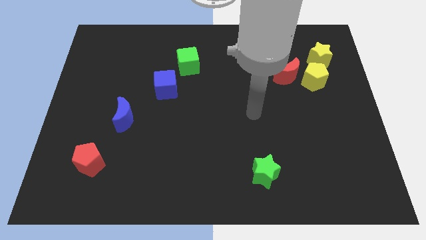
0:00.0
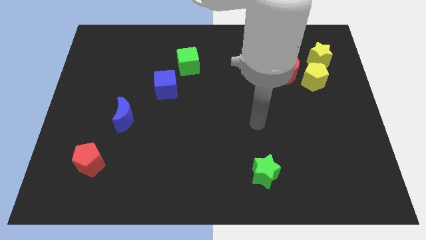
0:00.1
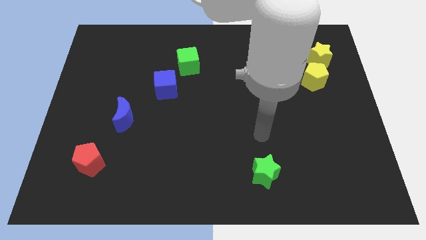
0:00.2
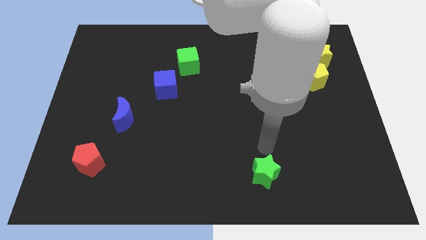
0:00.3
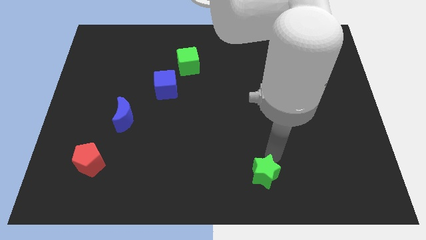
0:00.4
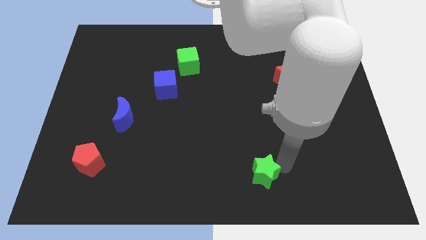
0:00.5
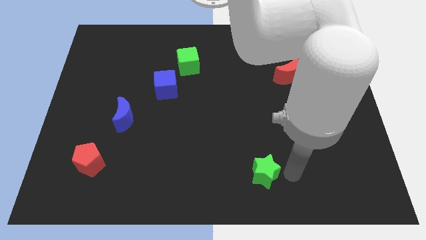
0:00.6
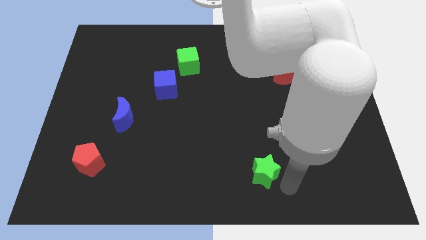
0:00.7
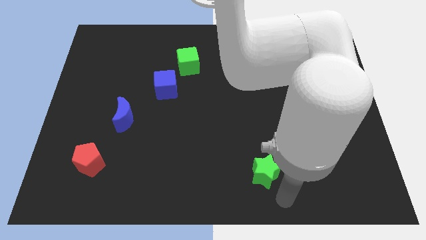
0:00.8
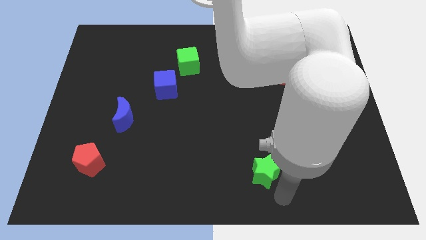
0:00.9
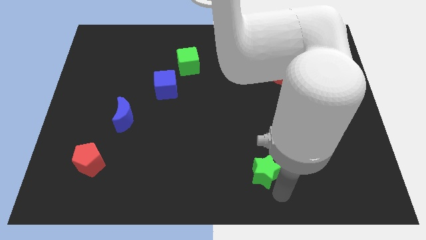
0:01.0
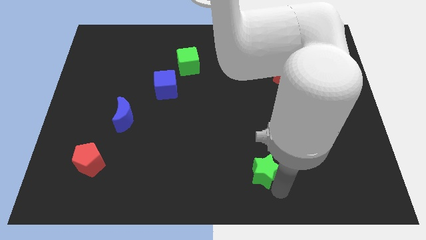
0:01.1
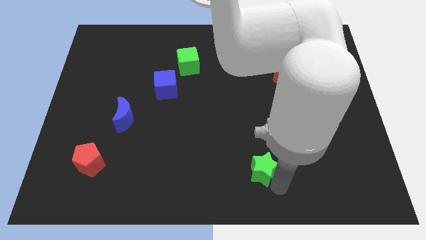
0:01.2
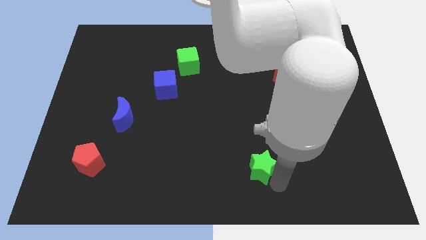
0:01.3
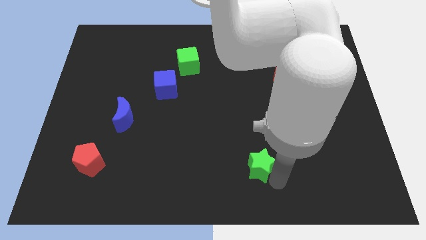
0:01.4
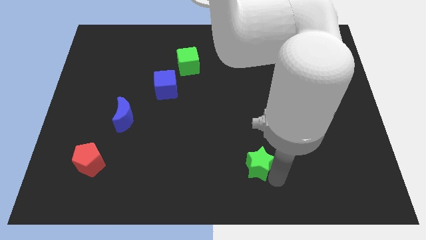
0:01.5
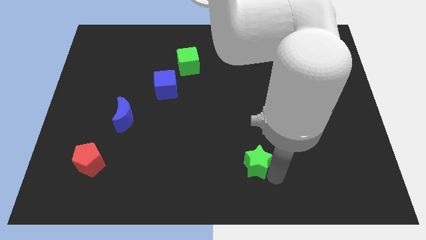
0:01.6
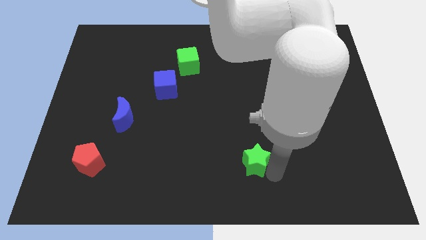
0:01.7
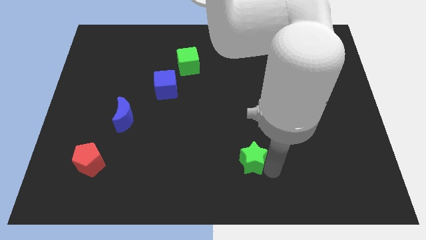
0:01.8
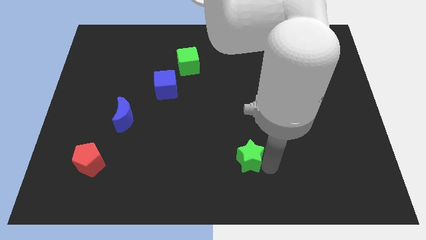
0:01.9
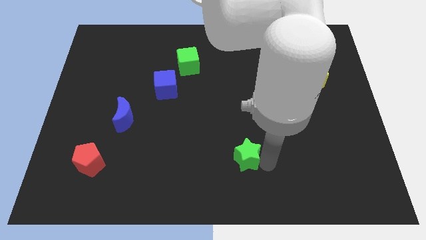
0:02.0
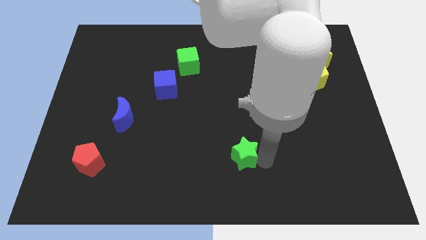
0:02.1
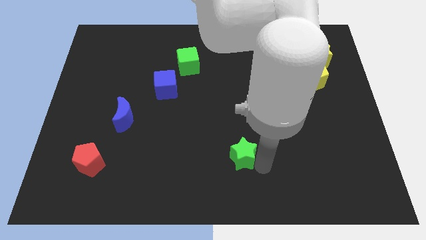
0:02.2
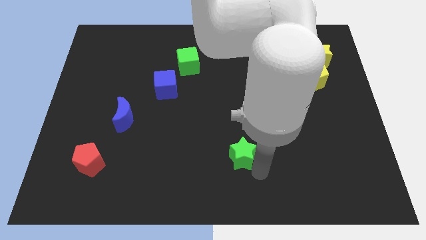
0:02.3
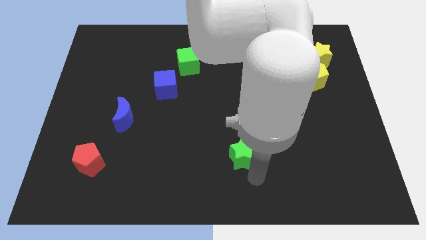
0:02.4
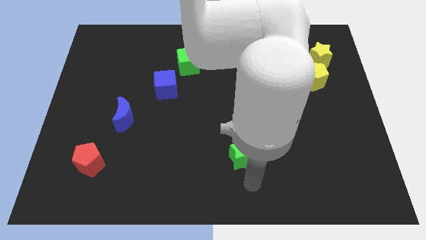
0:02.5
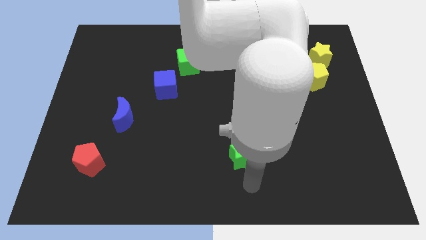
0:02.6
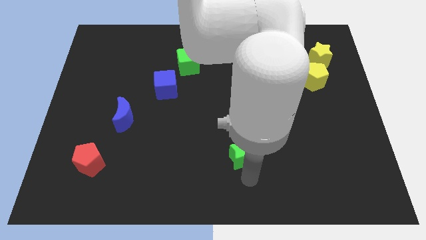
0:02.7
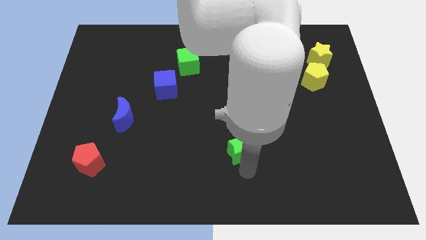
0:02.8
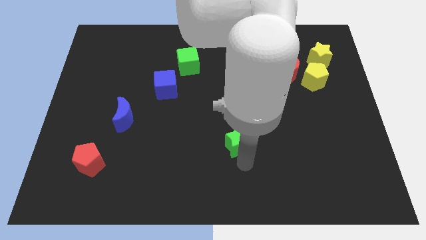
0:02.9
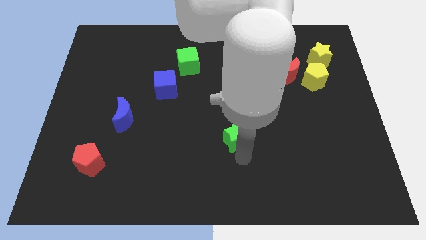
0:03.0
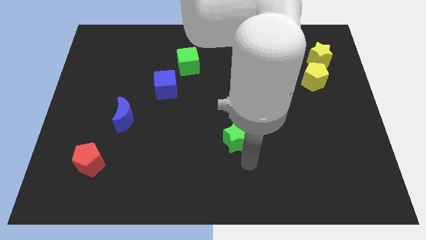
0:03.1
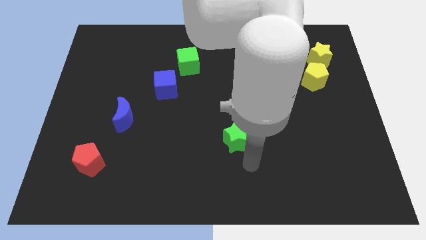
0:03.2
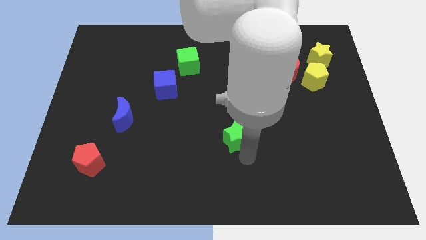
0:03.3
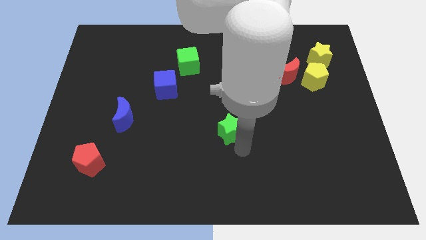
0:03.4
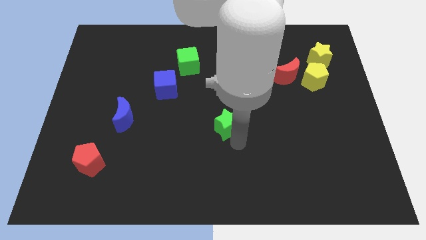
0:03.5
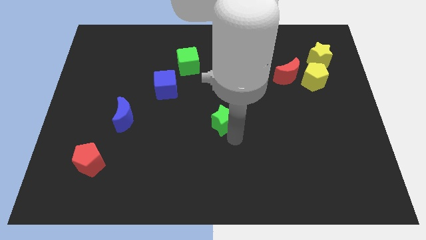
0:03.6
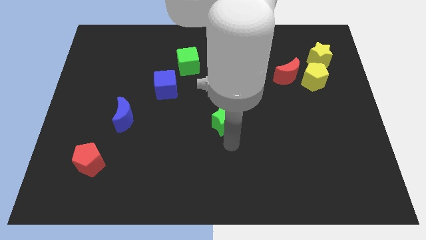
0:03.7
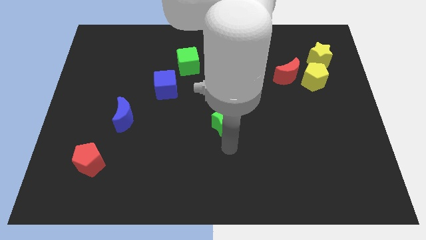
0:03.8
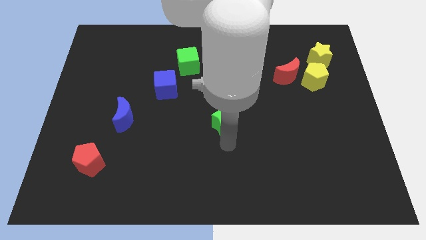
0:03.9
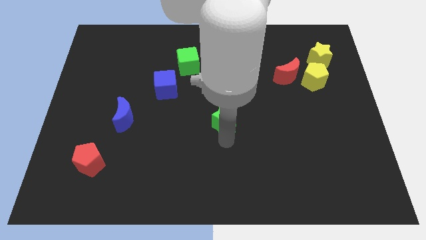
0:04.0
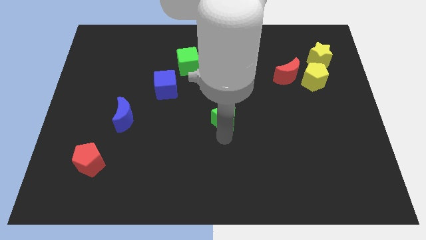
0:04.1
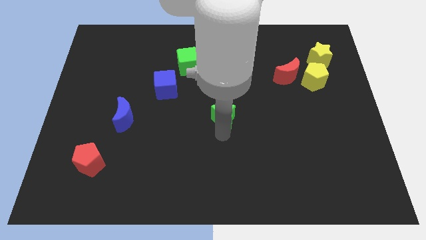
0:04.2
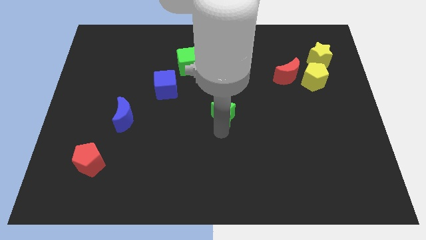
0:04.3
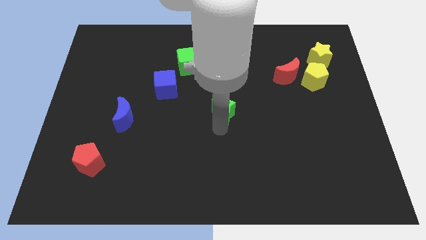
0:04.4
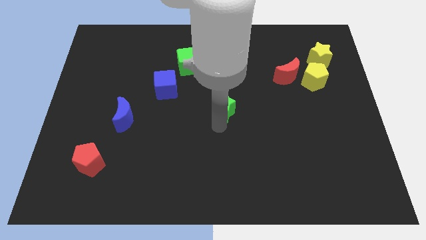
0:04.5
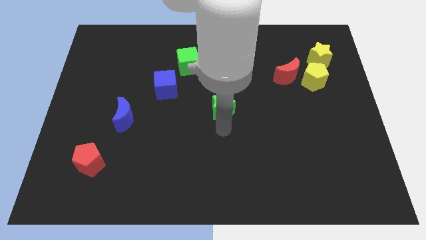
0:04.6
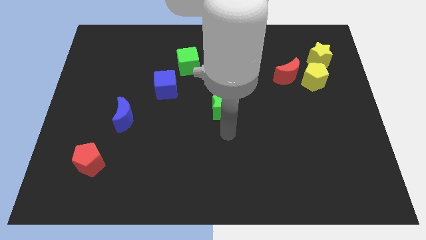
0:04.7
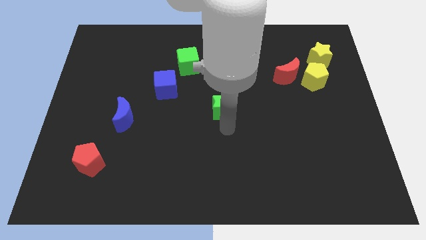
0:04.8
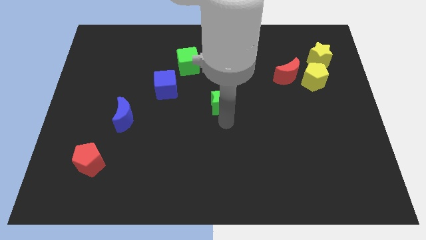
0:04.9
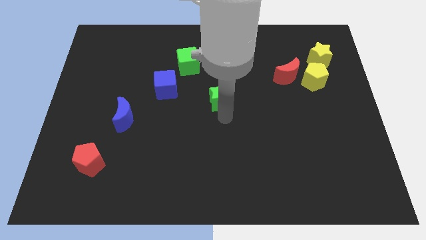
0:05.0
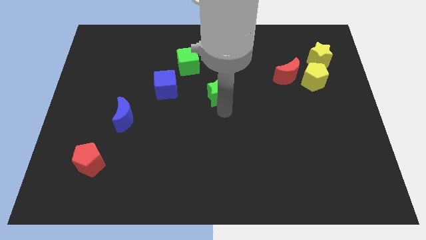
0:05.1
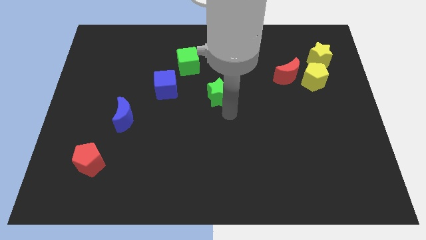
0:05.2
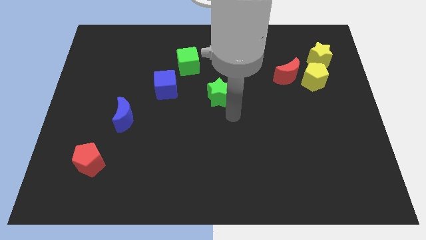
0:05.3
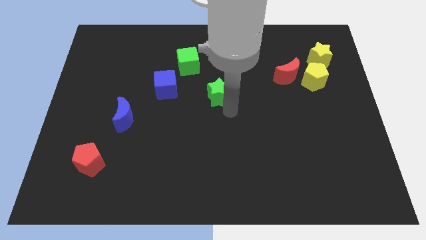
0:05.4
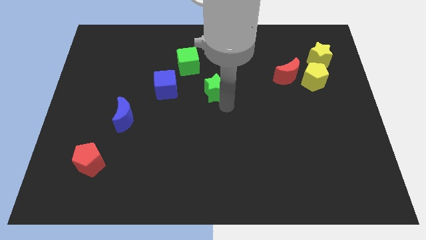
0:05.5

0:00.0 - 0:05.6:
put the green star diagonally down and to the right of the green cube

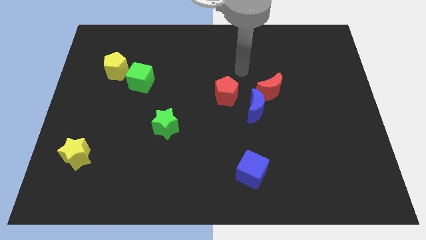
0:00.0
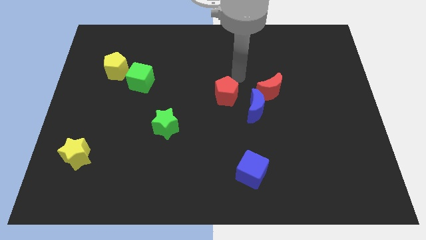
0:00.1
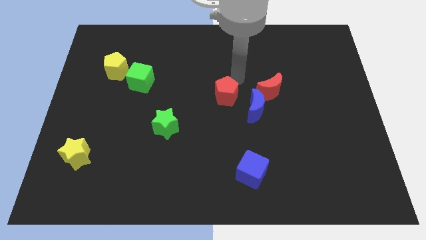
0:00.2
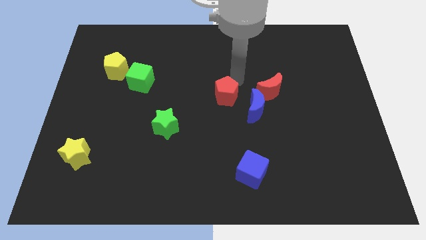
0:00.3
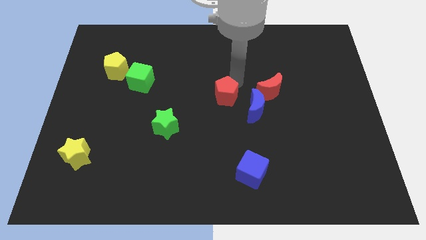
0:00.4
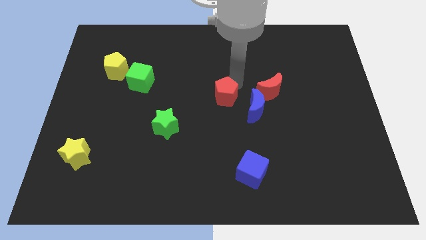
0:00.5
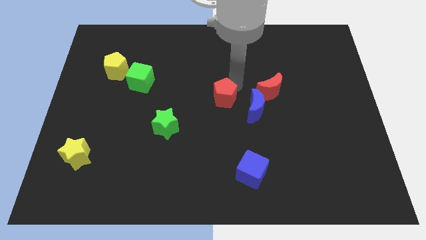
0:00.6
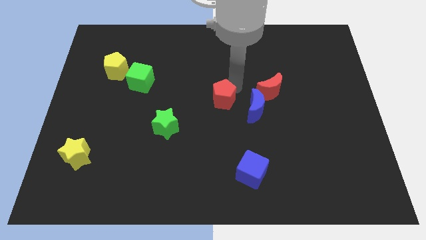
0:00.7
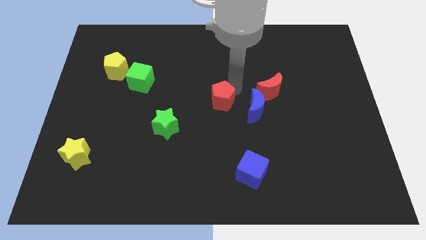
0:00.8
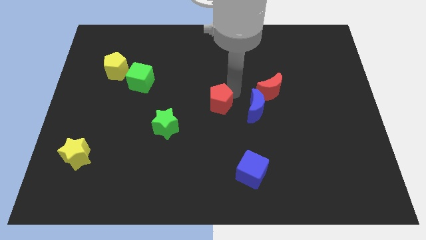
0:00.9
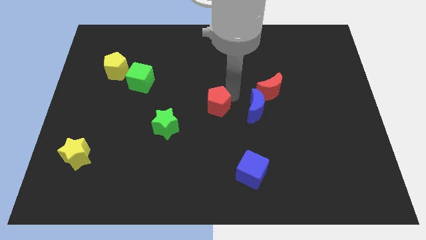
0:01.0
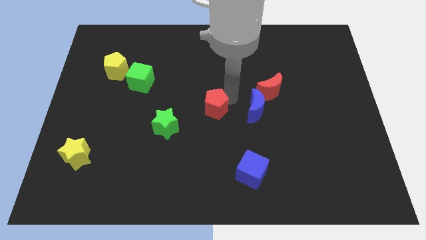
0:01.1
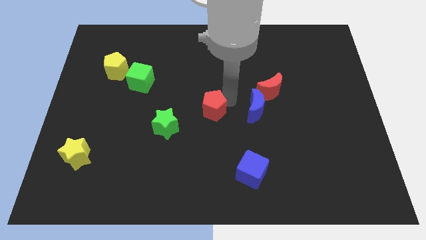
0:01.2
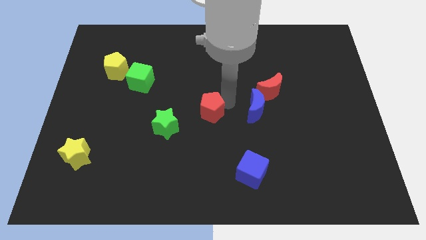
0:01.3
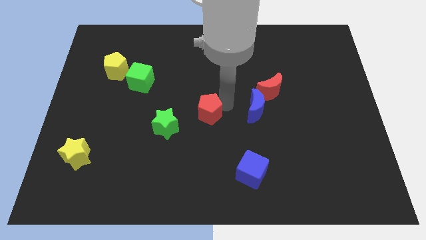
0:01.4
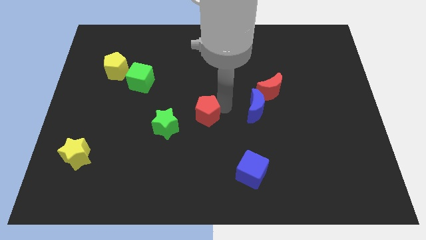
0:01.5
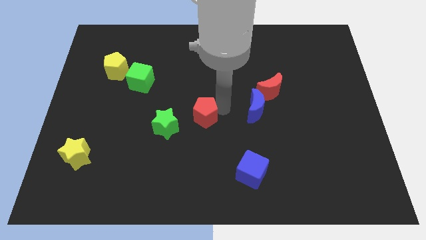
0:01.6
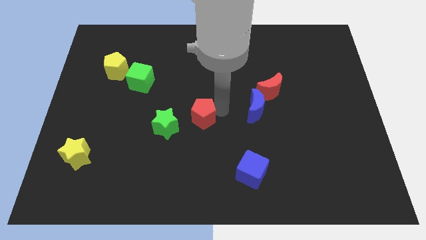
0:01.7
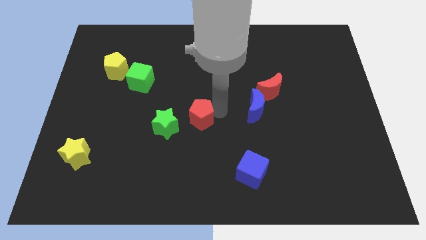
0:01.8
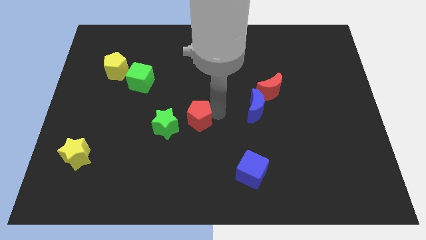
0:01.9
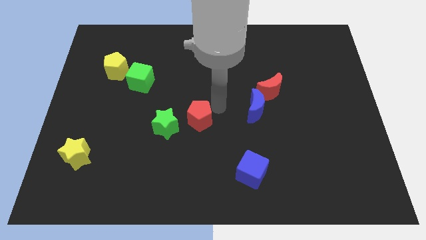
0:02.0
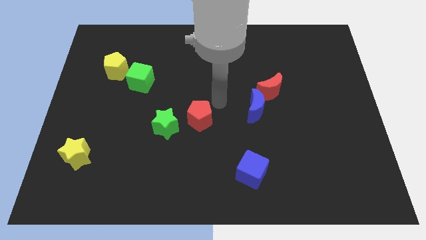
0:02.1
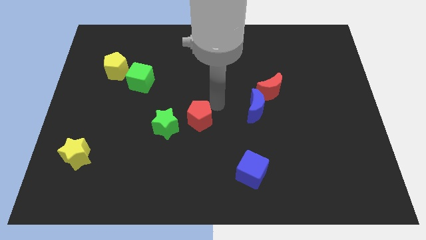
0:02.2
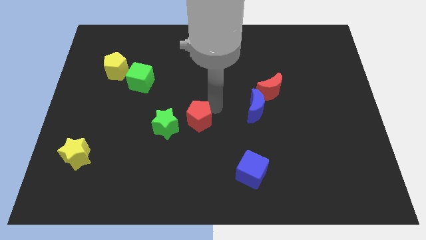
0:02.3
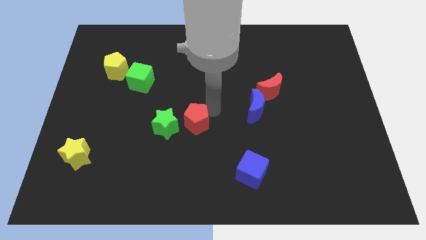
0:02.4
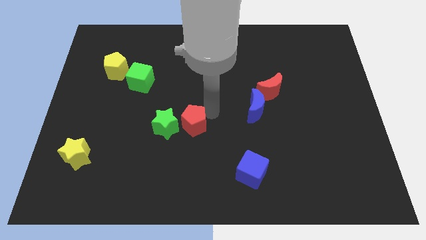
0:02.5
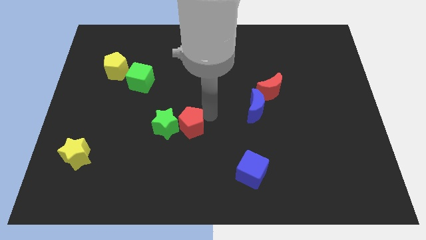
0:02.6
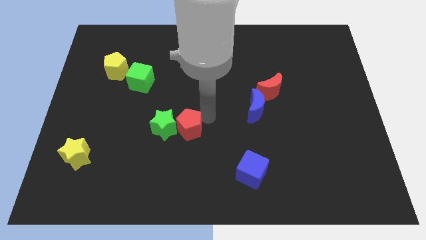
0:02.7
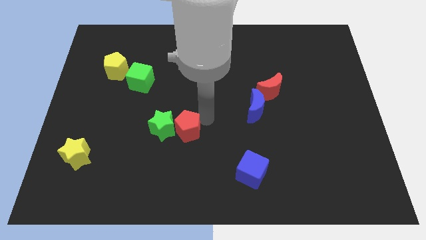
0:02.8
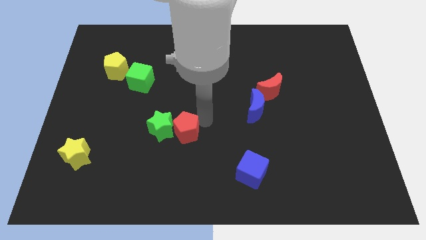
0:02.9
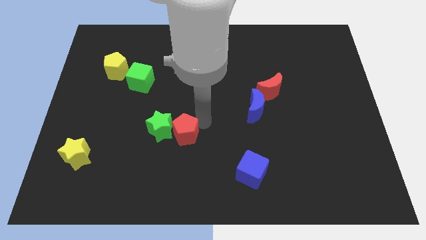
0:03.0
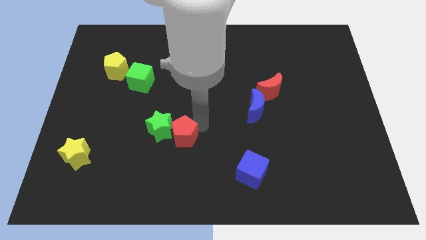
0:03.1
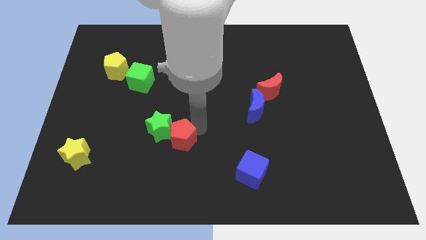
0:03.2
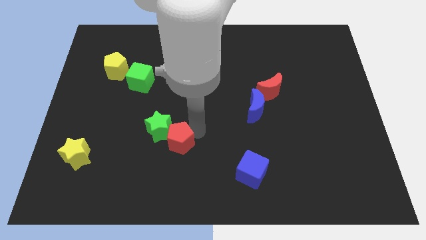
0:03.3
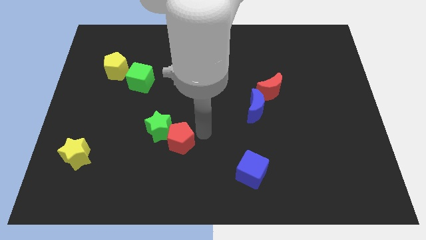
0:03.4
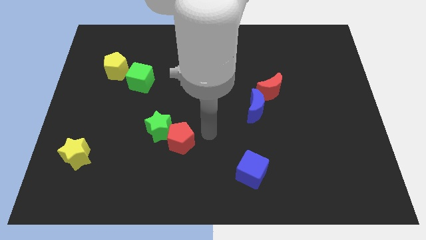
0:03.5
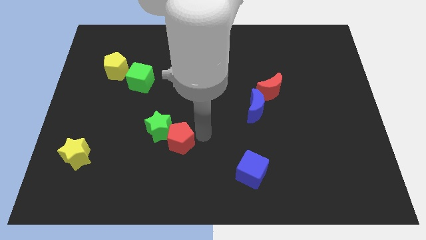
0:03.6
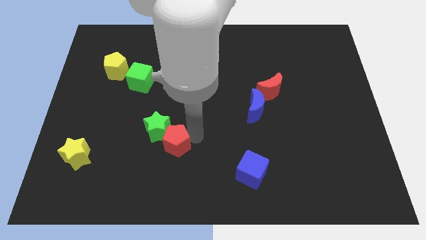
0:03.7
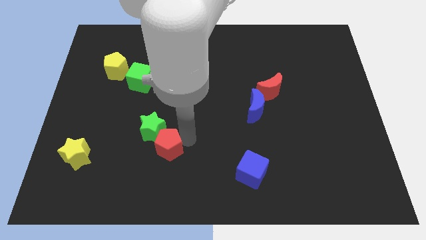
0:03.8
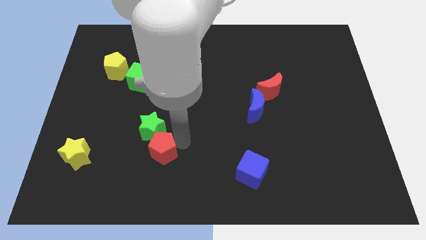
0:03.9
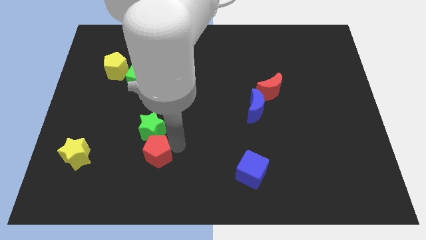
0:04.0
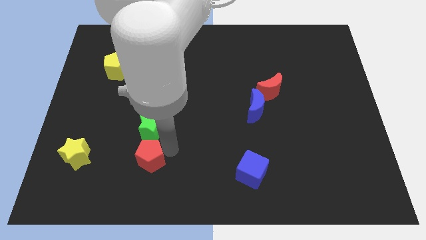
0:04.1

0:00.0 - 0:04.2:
push the red pentagon just right of the yellow star
